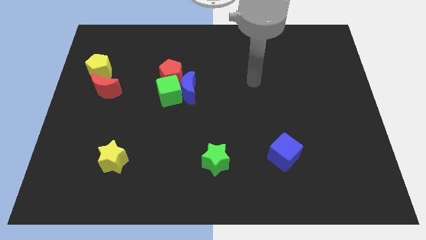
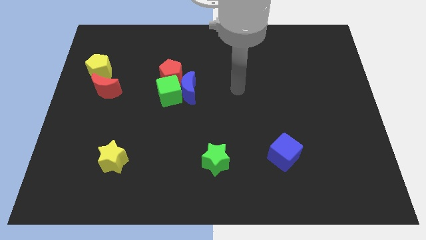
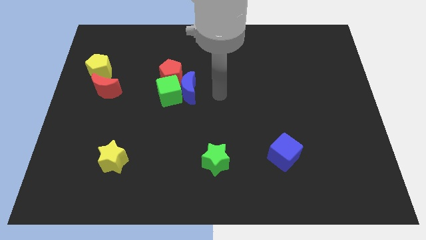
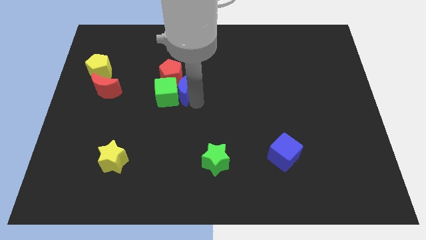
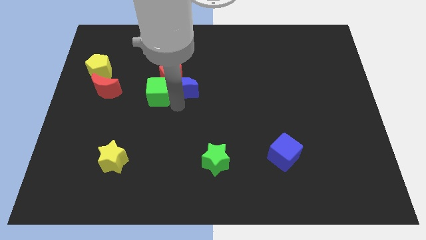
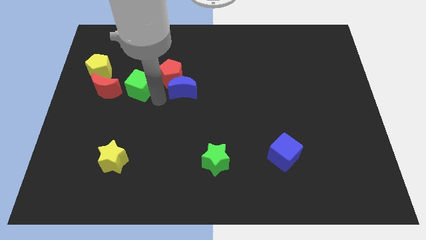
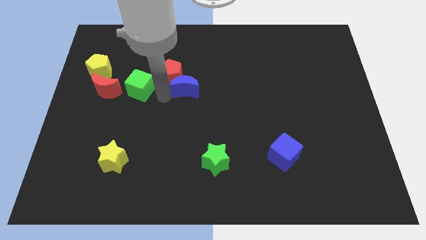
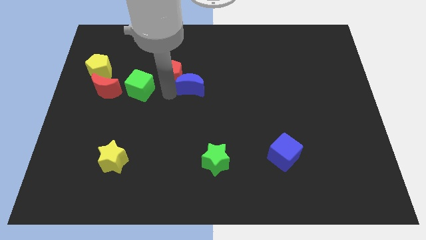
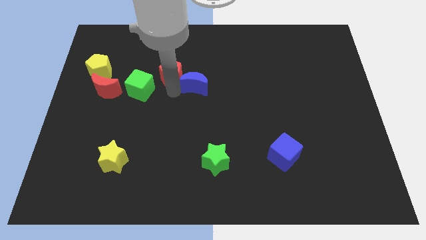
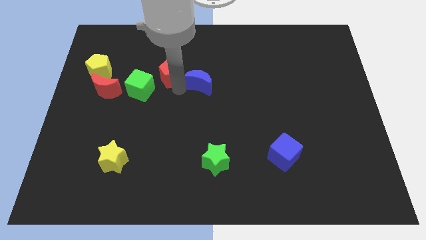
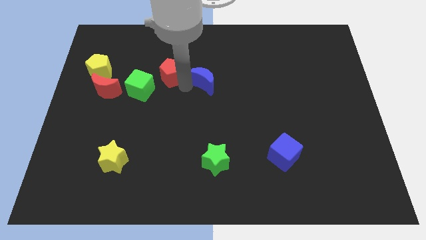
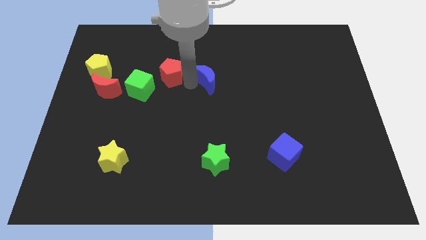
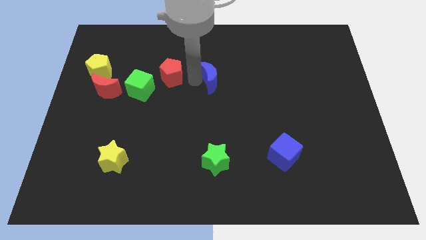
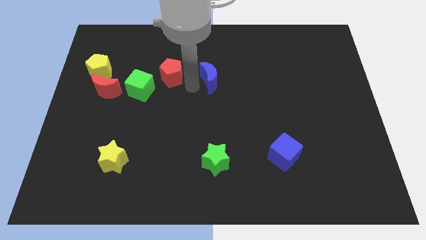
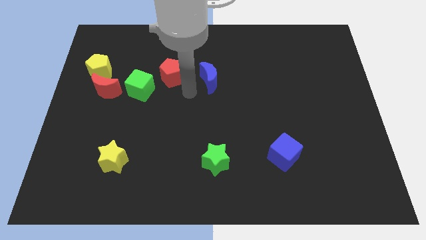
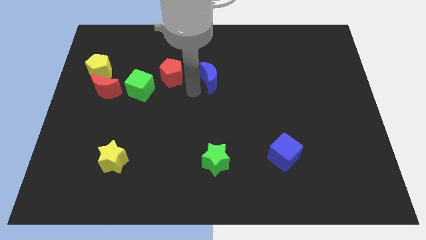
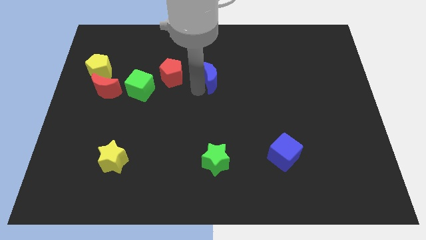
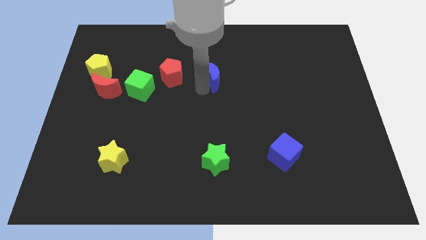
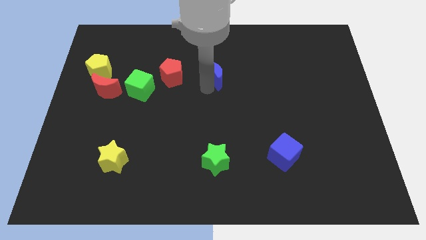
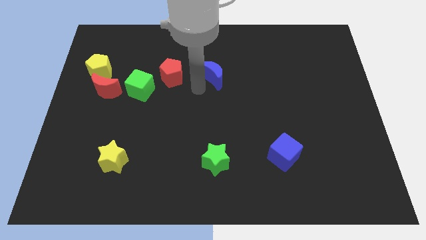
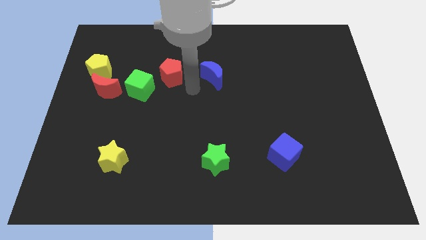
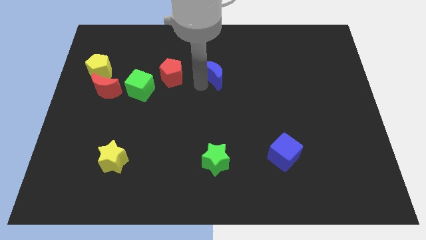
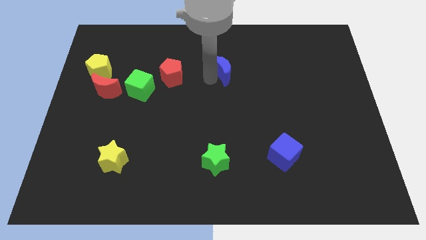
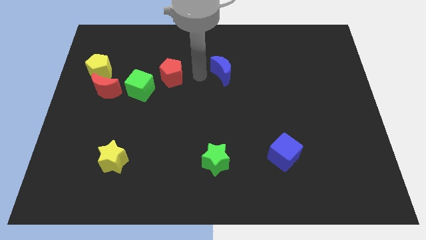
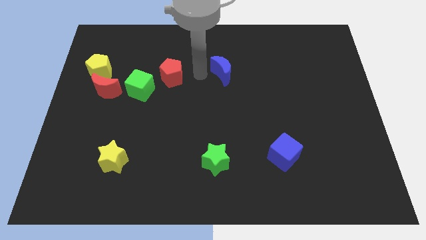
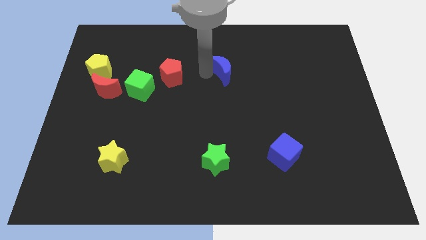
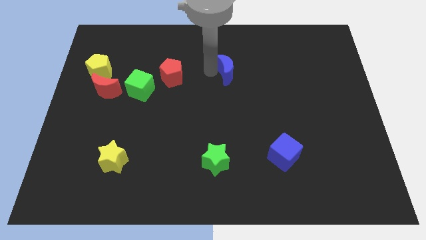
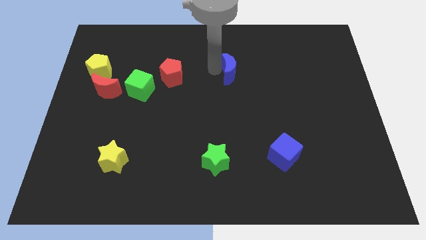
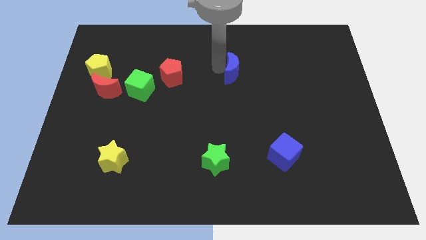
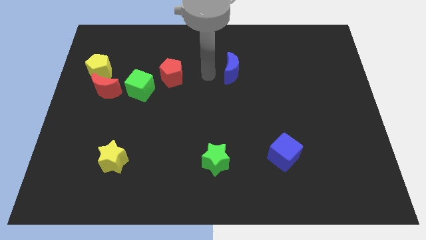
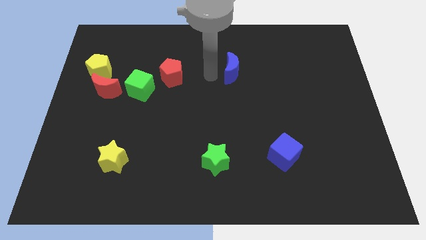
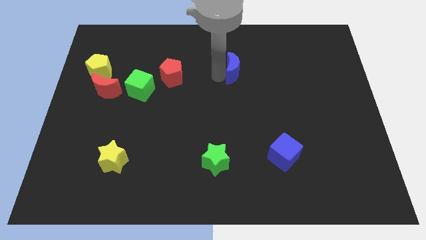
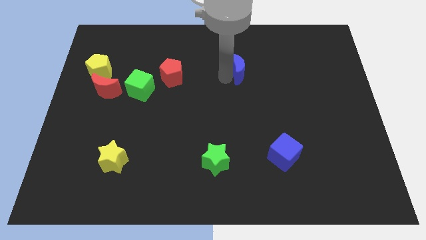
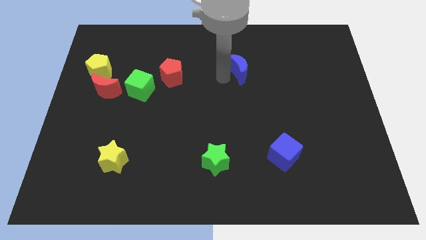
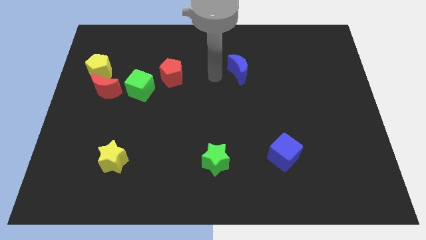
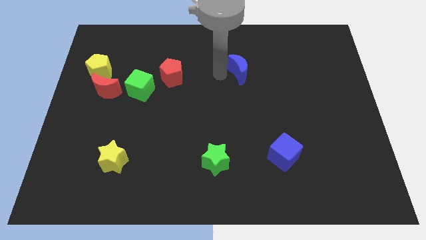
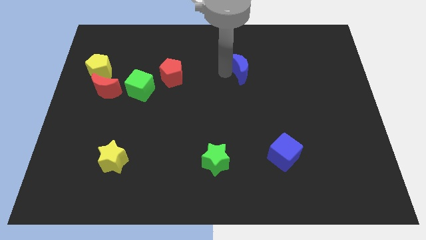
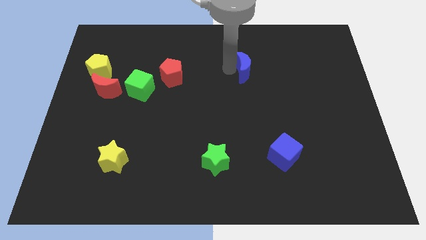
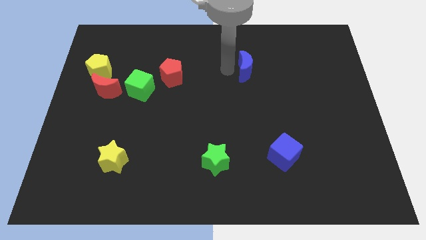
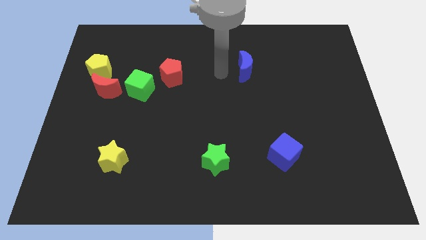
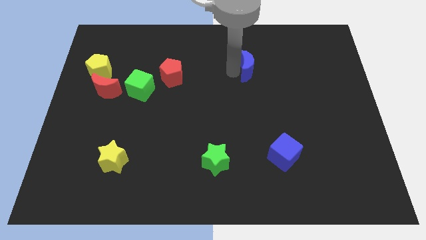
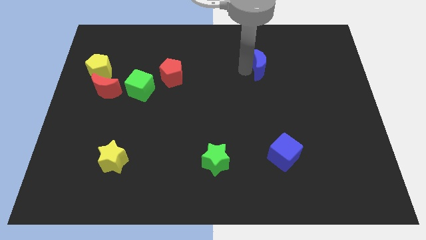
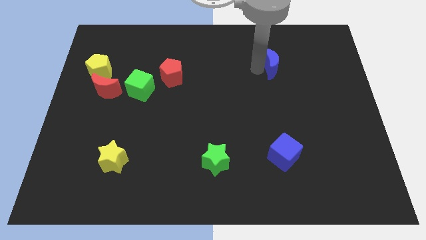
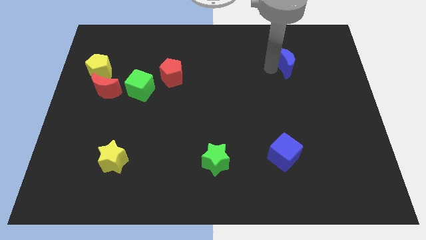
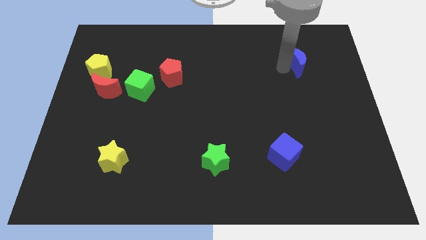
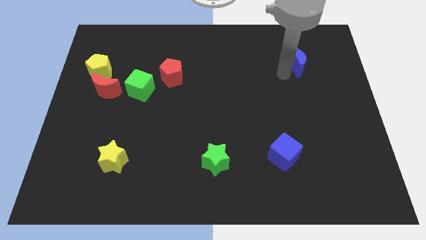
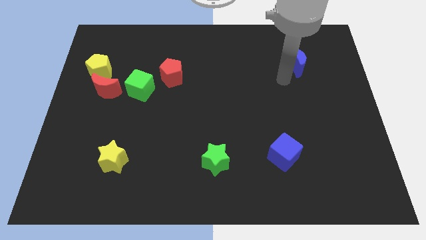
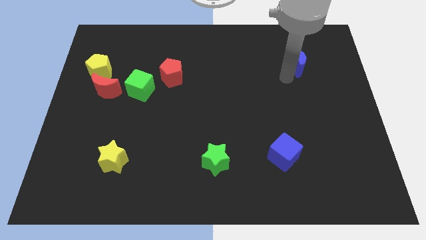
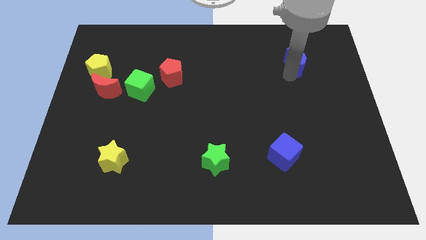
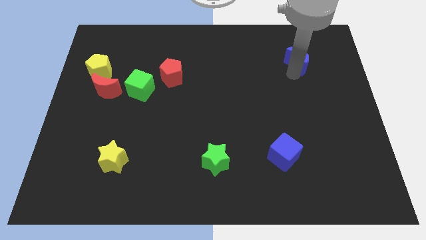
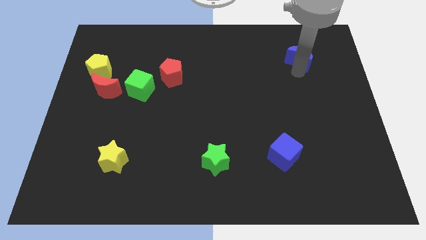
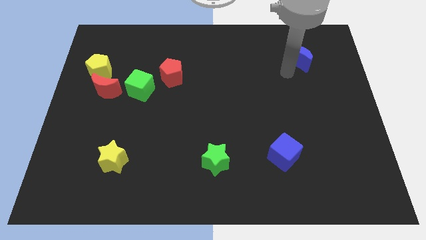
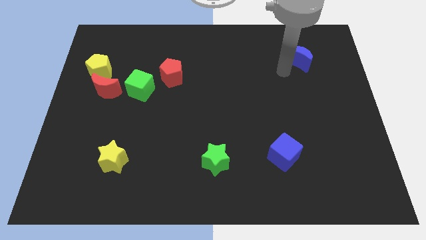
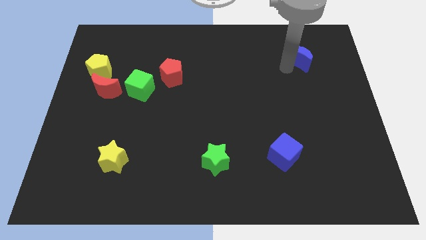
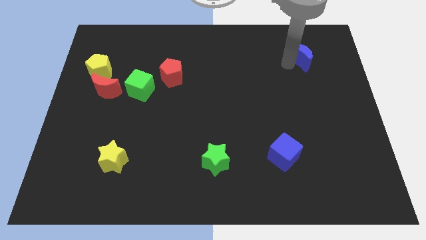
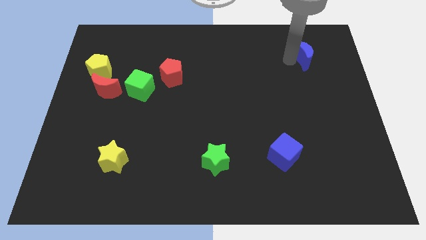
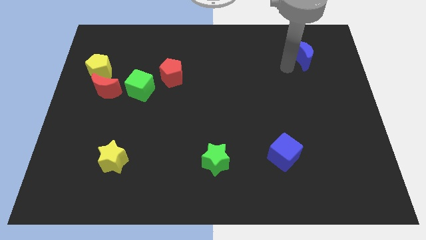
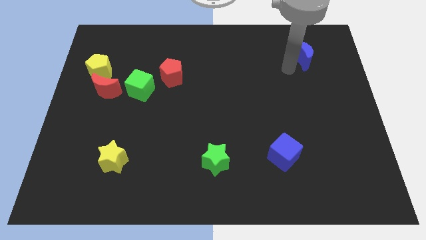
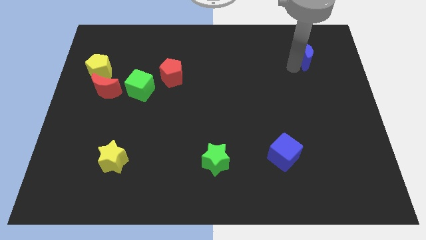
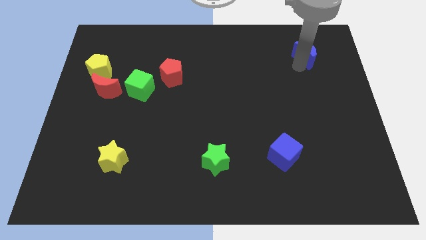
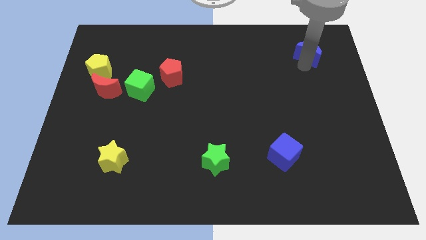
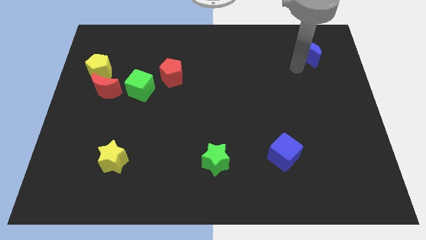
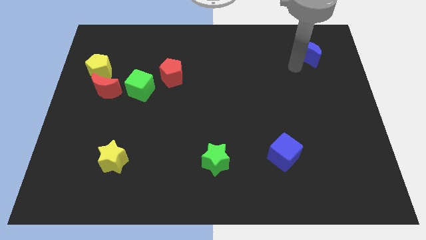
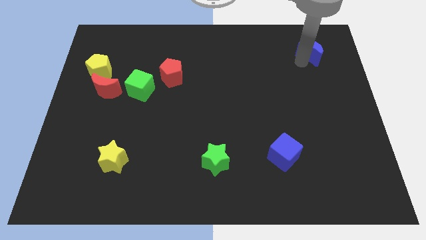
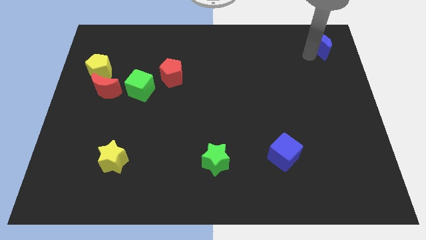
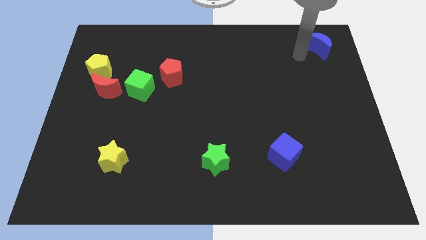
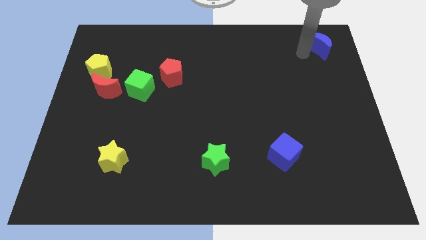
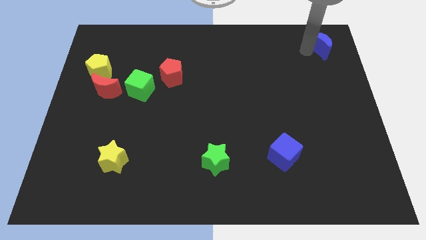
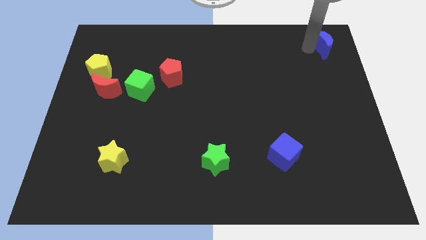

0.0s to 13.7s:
move the blue moon to the top right
